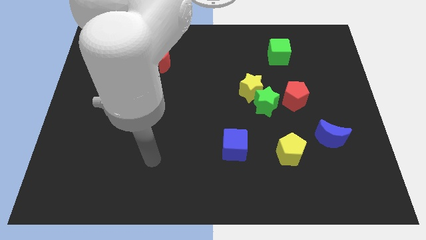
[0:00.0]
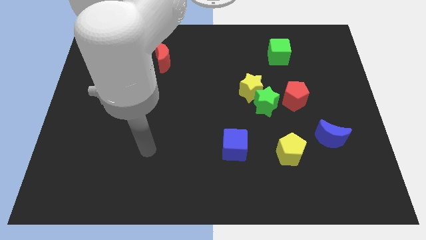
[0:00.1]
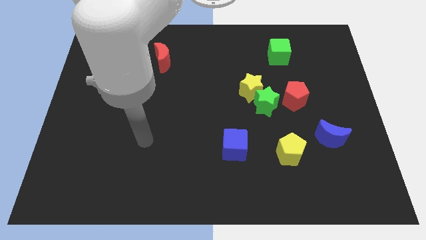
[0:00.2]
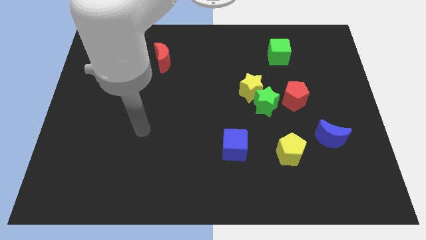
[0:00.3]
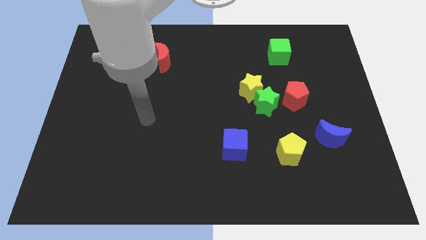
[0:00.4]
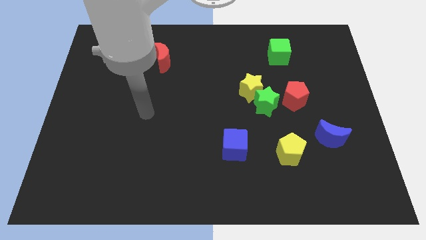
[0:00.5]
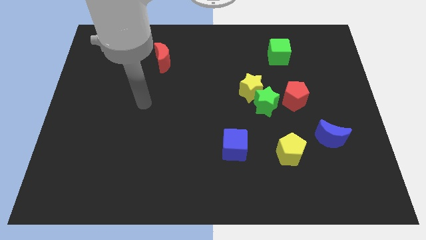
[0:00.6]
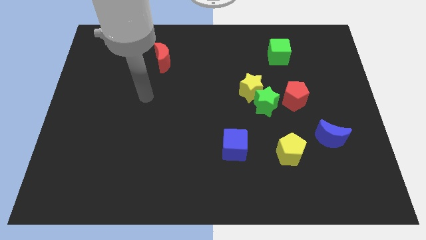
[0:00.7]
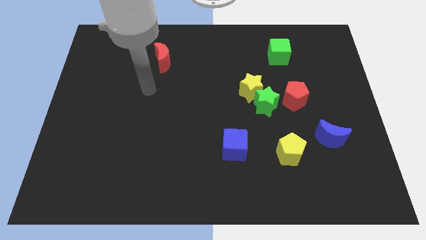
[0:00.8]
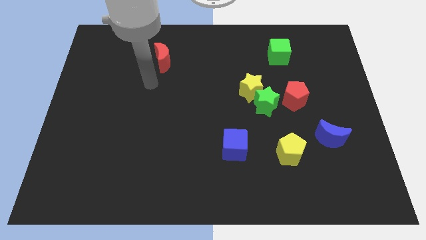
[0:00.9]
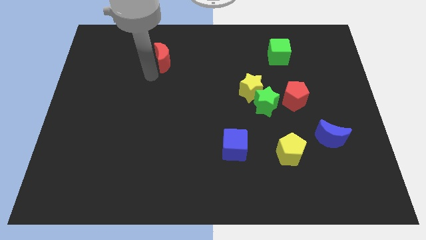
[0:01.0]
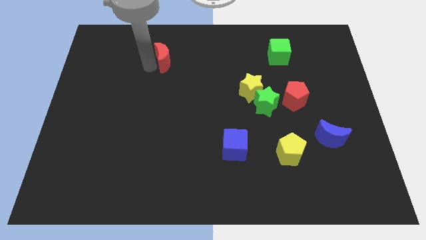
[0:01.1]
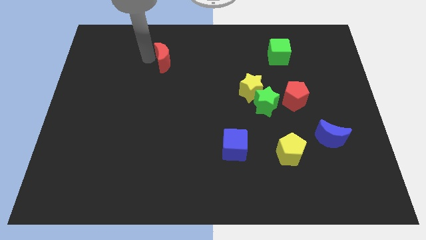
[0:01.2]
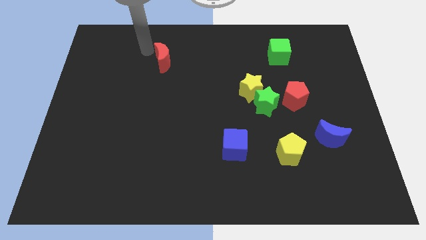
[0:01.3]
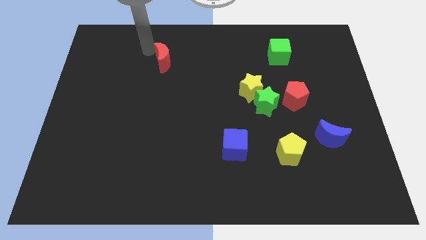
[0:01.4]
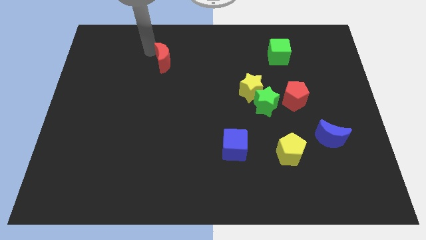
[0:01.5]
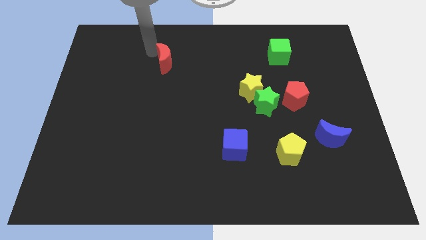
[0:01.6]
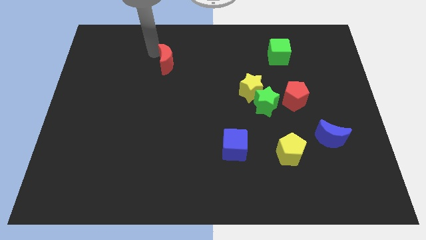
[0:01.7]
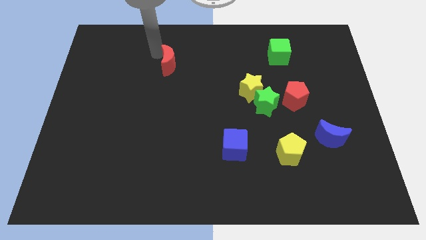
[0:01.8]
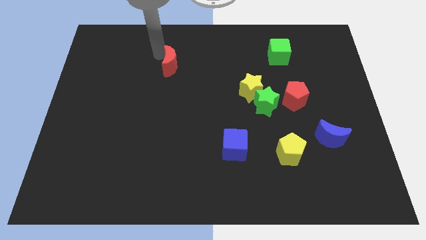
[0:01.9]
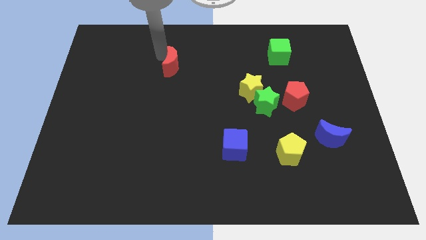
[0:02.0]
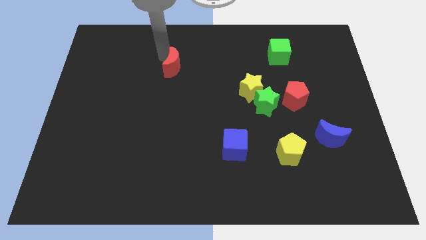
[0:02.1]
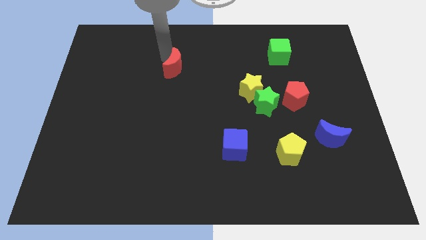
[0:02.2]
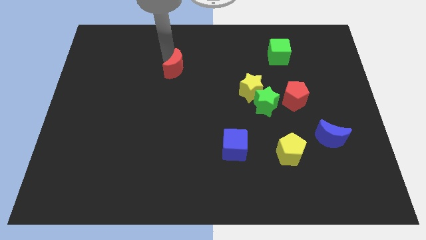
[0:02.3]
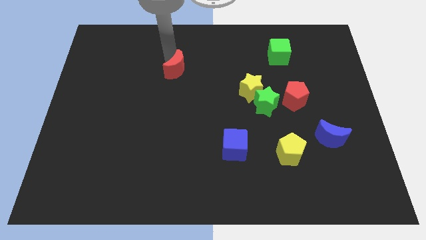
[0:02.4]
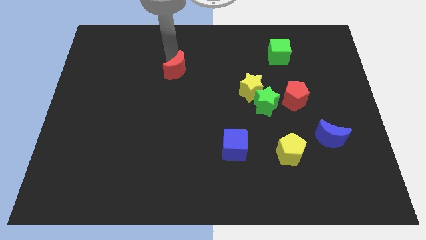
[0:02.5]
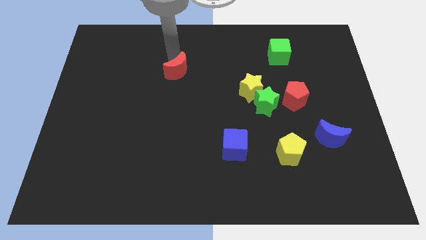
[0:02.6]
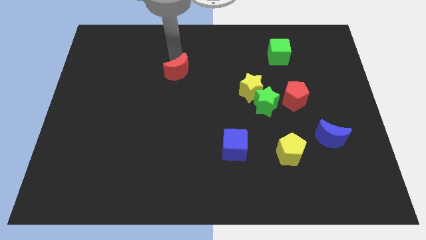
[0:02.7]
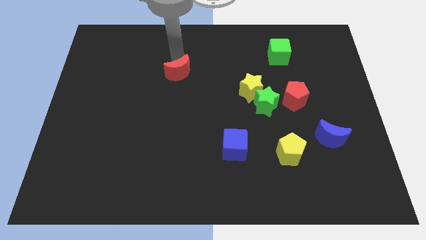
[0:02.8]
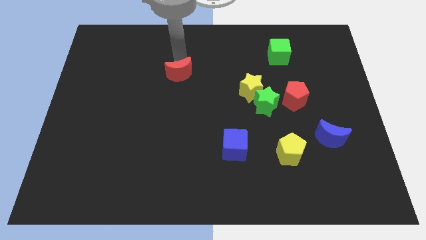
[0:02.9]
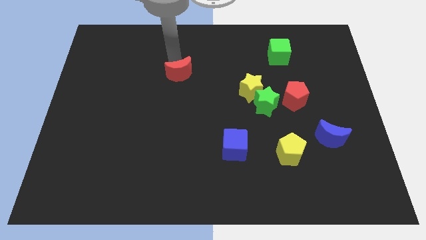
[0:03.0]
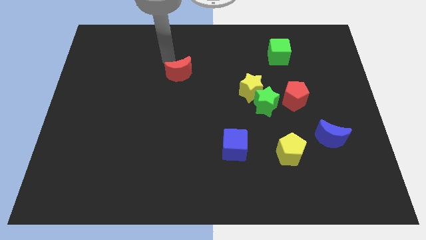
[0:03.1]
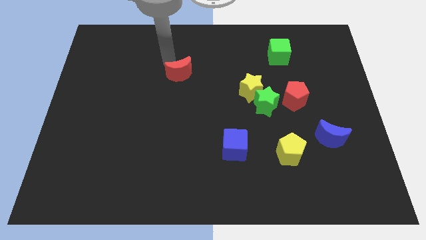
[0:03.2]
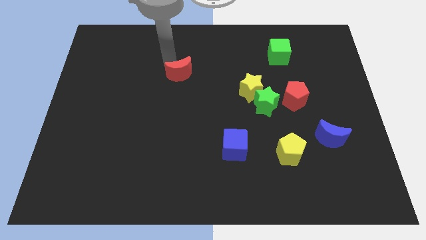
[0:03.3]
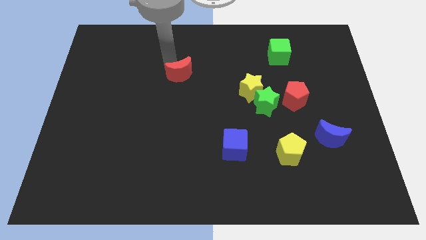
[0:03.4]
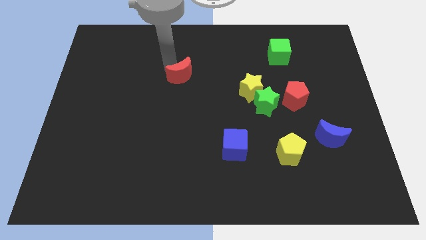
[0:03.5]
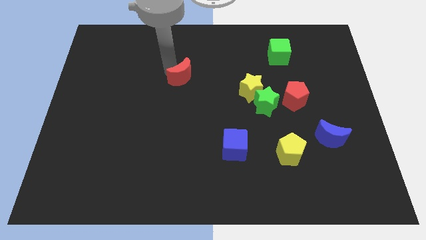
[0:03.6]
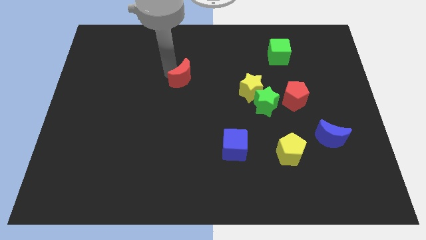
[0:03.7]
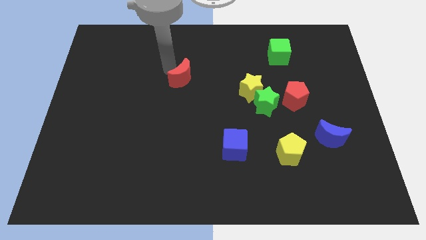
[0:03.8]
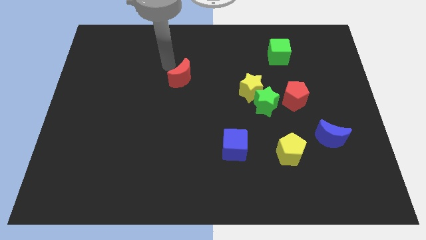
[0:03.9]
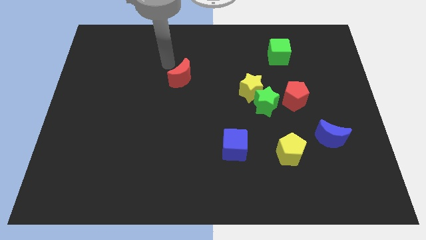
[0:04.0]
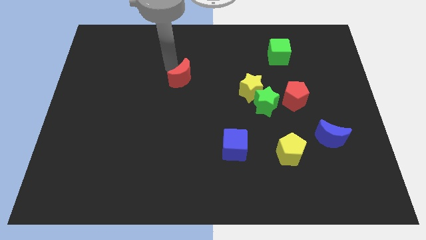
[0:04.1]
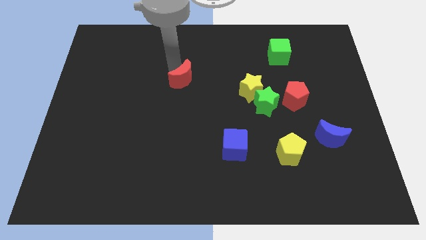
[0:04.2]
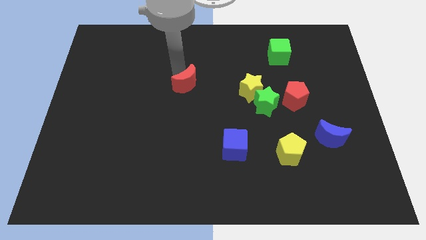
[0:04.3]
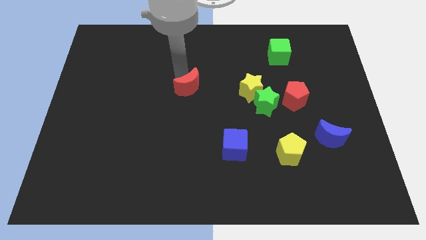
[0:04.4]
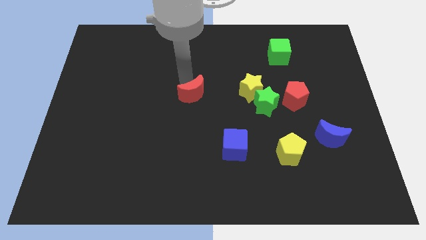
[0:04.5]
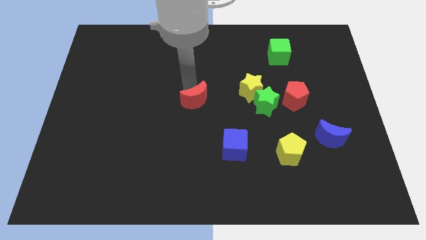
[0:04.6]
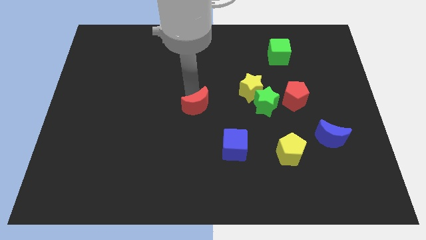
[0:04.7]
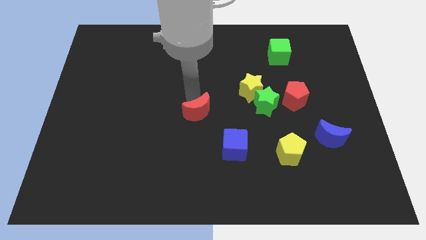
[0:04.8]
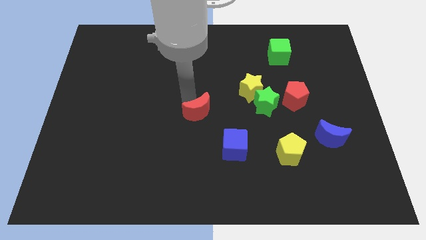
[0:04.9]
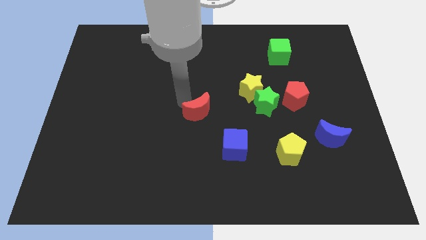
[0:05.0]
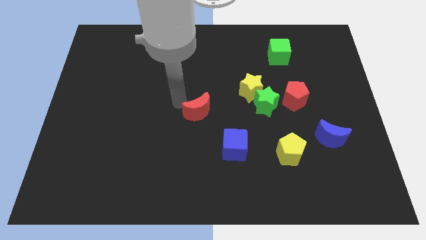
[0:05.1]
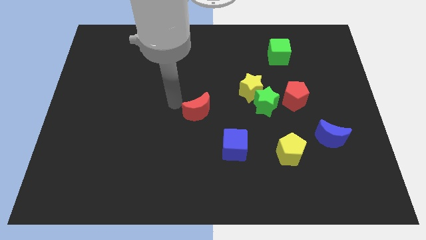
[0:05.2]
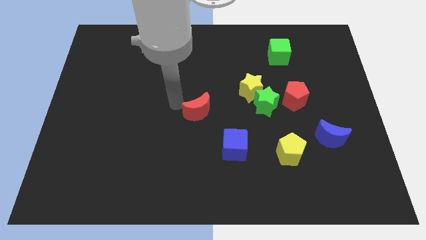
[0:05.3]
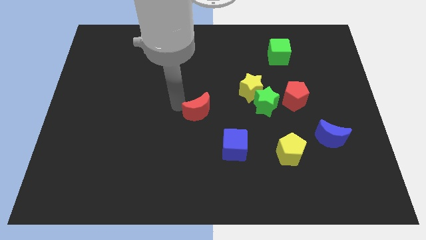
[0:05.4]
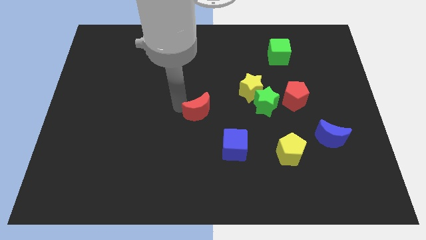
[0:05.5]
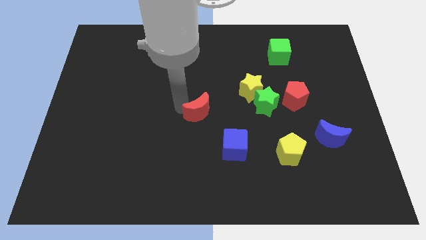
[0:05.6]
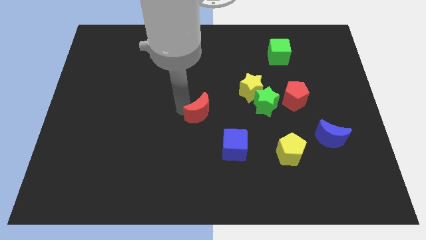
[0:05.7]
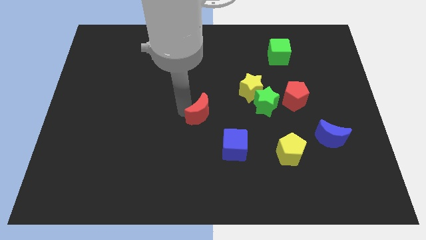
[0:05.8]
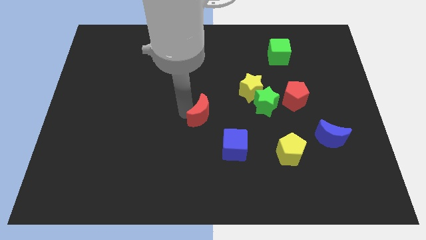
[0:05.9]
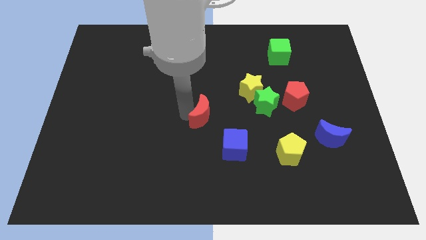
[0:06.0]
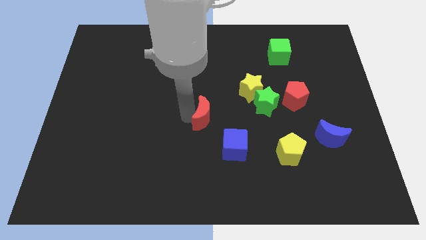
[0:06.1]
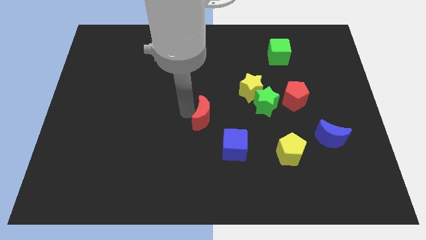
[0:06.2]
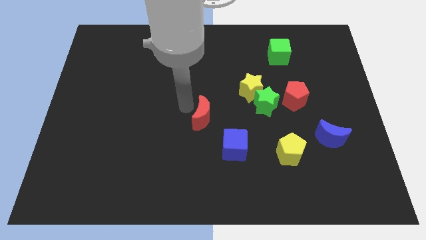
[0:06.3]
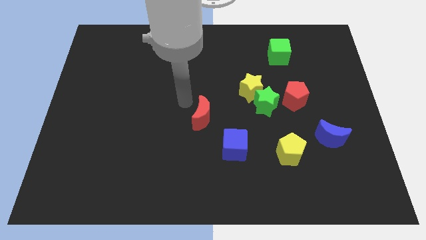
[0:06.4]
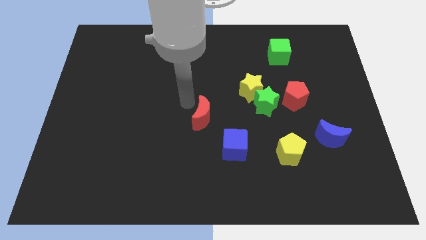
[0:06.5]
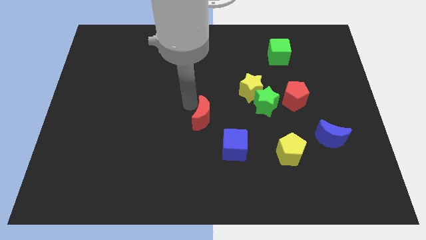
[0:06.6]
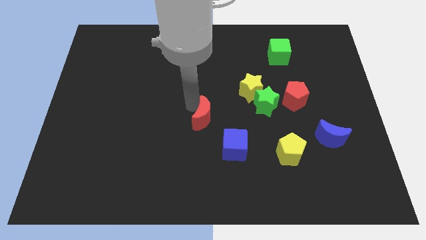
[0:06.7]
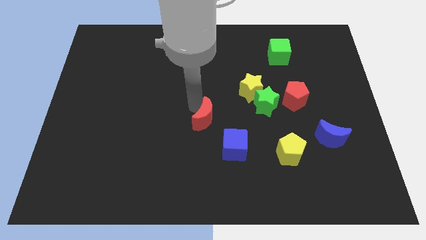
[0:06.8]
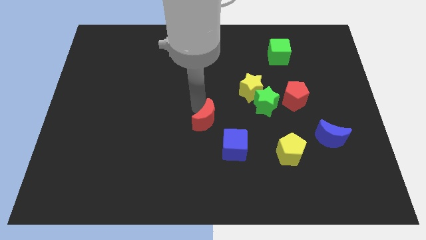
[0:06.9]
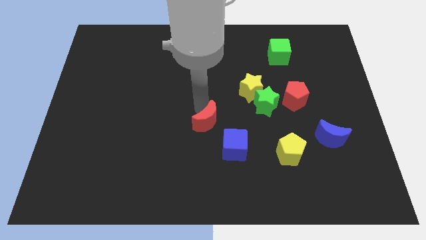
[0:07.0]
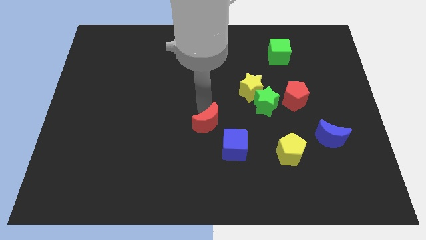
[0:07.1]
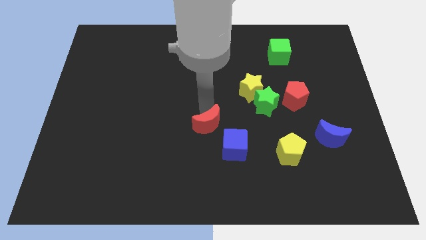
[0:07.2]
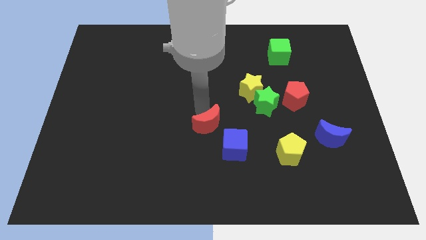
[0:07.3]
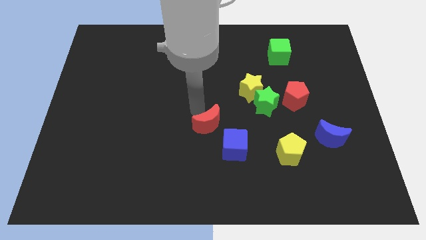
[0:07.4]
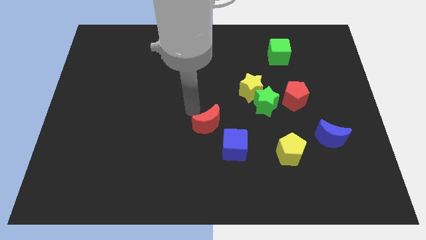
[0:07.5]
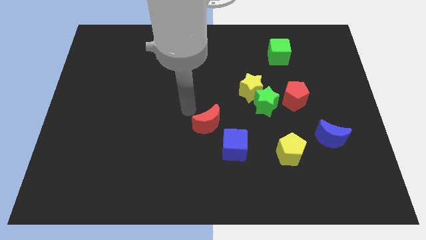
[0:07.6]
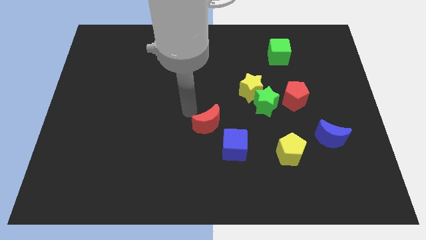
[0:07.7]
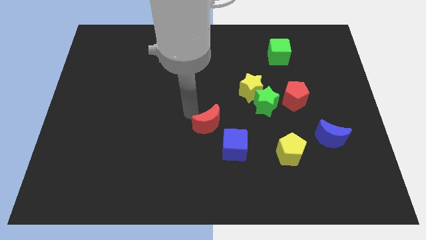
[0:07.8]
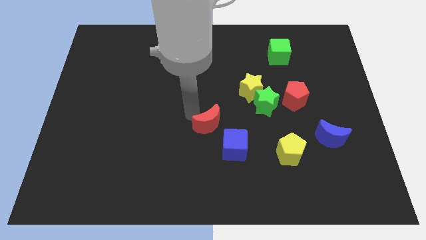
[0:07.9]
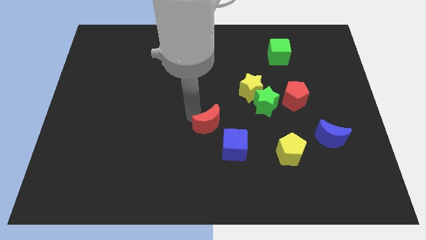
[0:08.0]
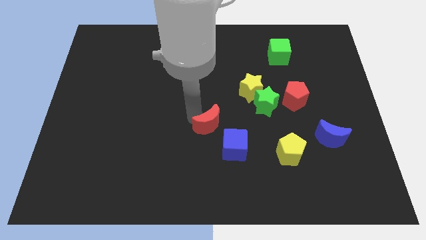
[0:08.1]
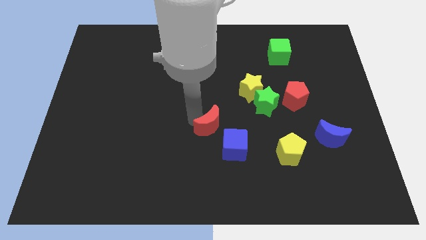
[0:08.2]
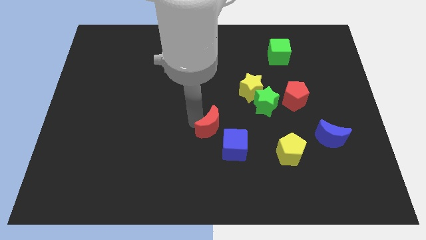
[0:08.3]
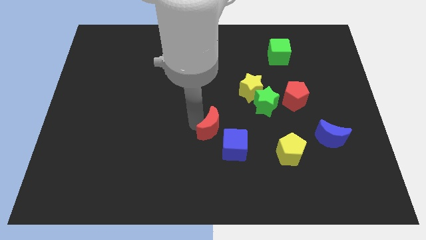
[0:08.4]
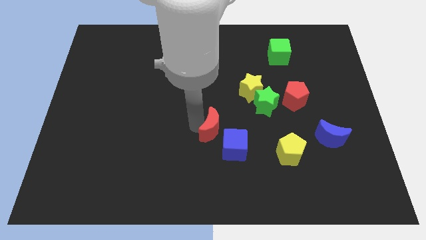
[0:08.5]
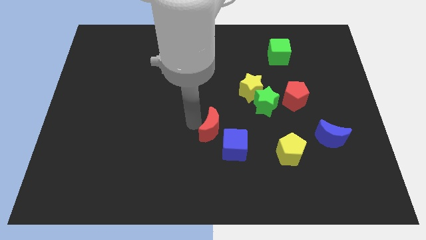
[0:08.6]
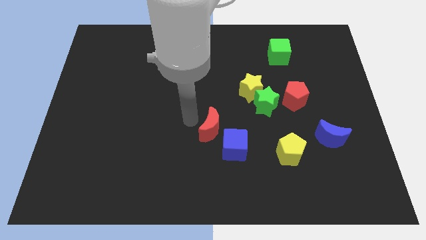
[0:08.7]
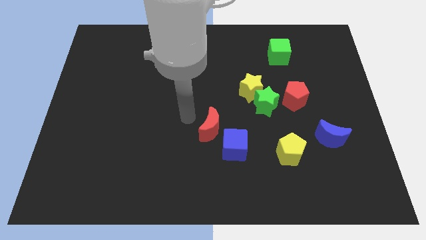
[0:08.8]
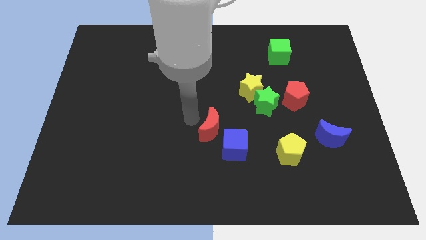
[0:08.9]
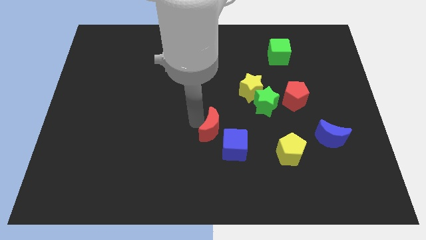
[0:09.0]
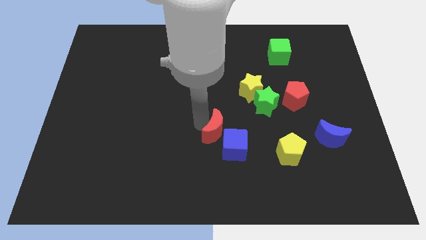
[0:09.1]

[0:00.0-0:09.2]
push the red moon towards the blue cube
